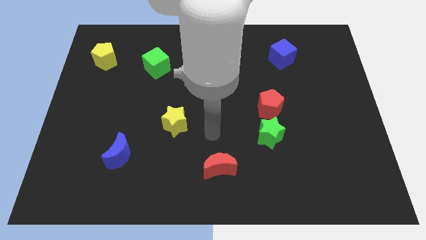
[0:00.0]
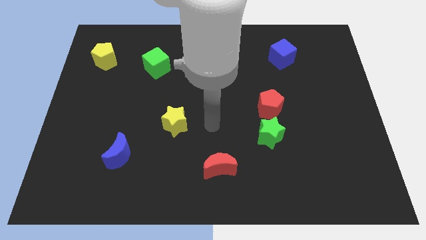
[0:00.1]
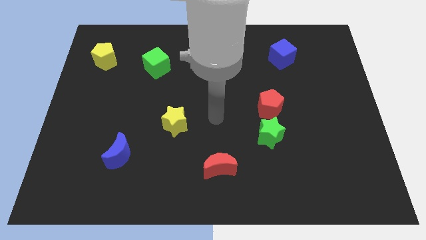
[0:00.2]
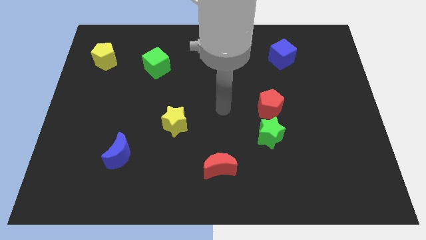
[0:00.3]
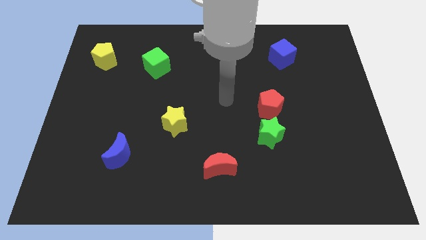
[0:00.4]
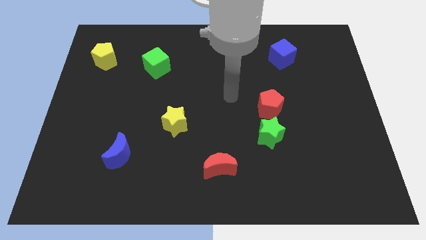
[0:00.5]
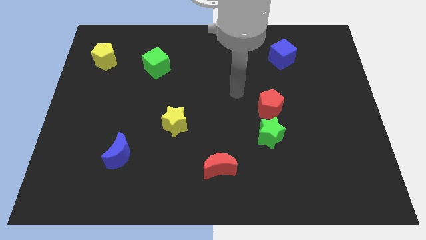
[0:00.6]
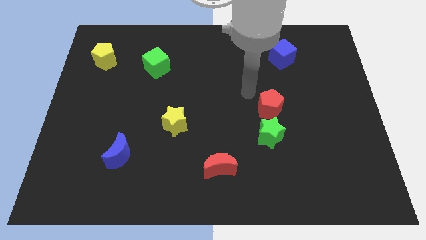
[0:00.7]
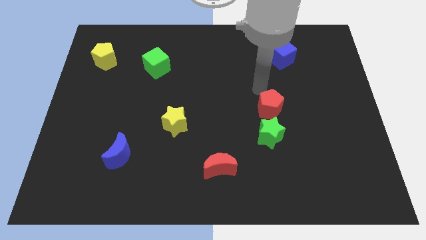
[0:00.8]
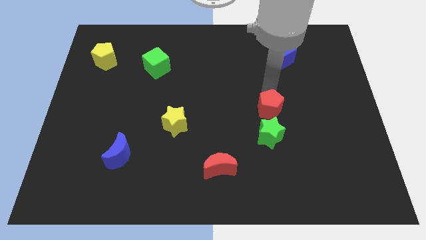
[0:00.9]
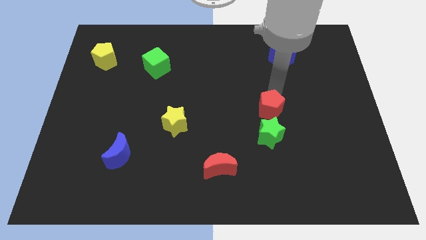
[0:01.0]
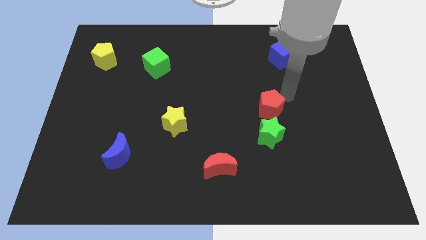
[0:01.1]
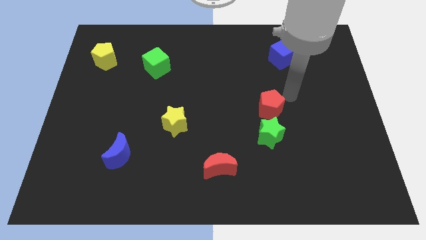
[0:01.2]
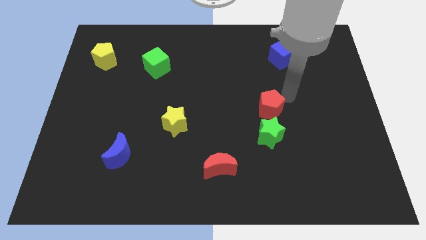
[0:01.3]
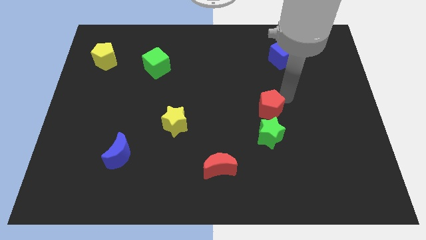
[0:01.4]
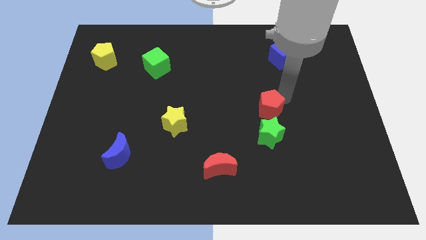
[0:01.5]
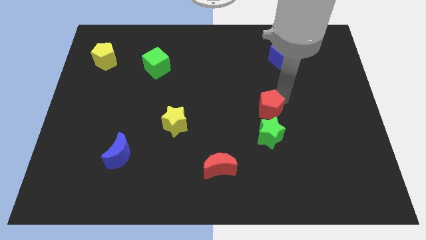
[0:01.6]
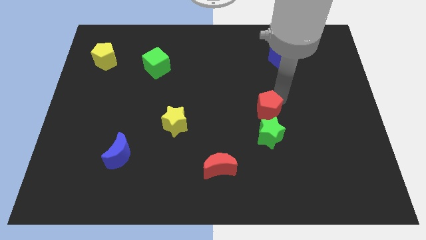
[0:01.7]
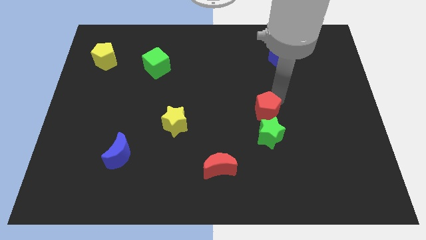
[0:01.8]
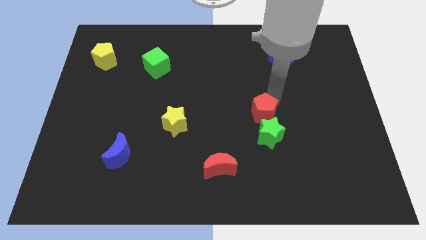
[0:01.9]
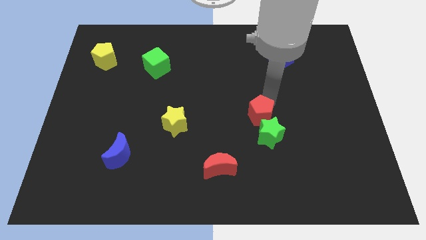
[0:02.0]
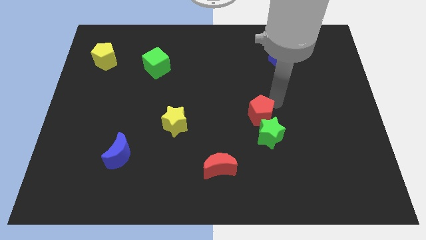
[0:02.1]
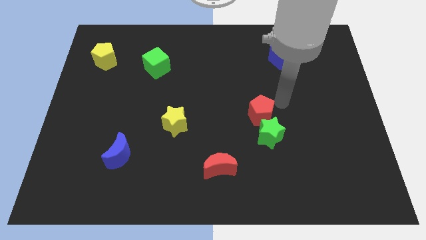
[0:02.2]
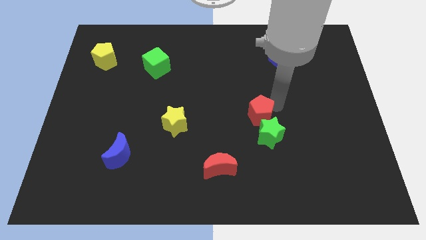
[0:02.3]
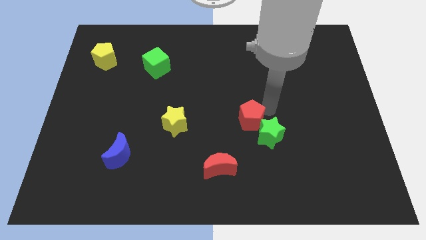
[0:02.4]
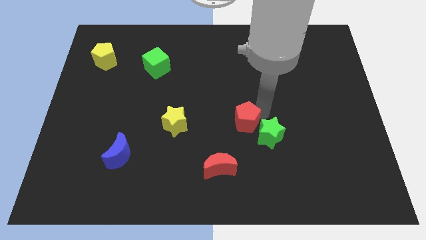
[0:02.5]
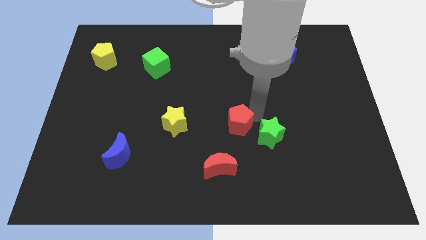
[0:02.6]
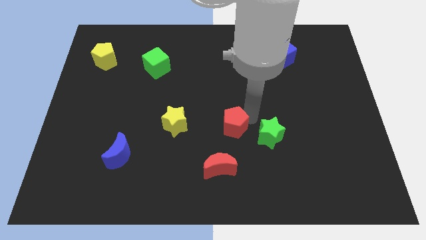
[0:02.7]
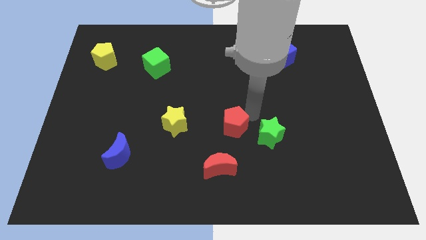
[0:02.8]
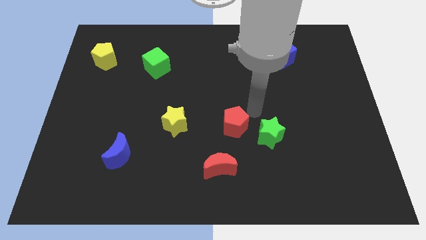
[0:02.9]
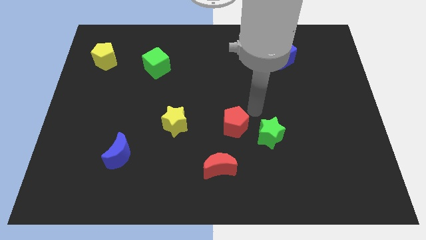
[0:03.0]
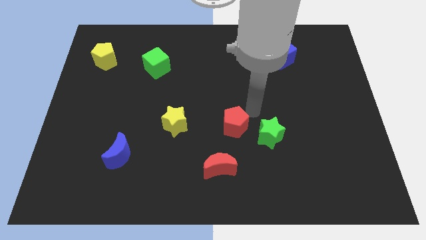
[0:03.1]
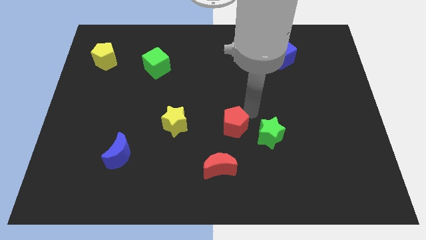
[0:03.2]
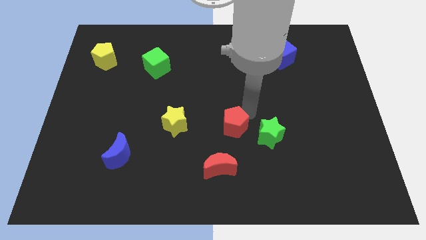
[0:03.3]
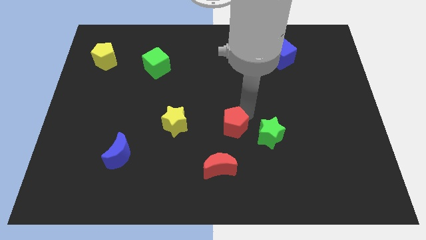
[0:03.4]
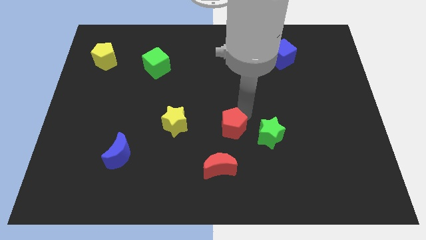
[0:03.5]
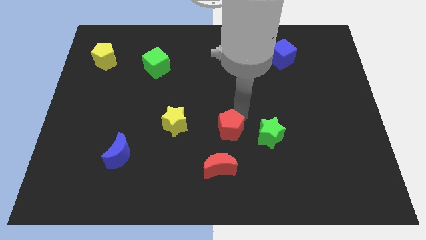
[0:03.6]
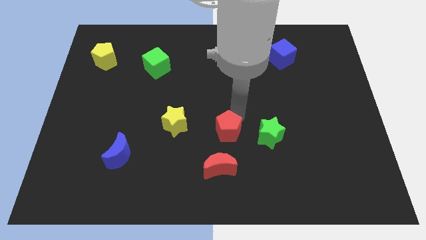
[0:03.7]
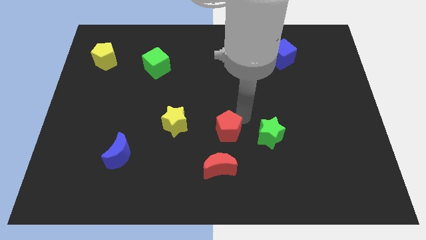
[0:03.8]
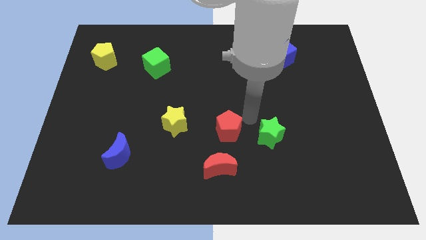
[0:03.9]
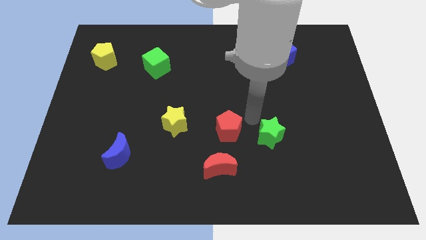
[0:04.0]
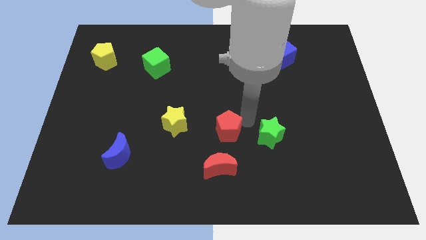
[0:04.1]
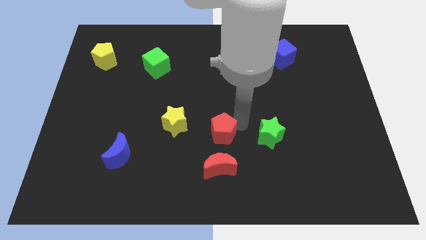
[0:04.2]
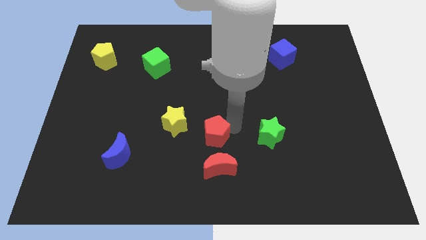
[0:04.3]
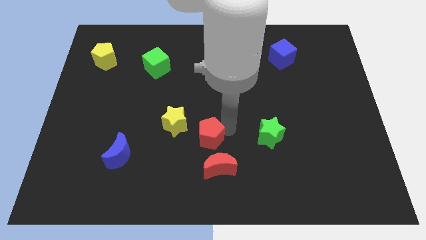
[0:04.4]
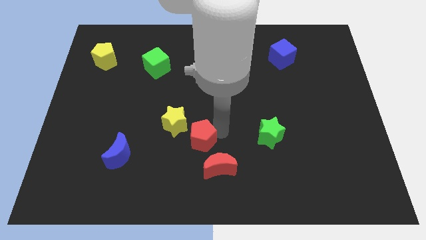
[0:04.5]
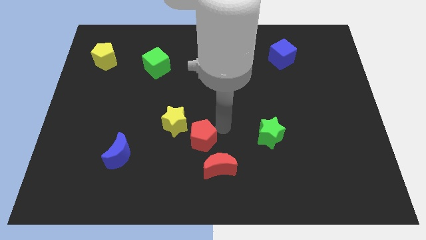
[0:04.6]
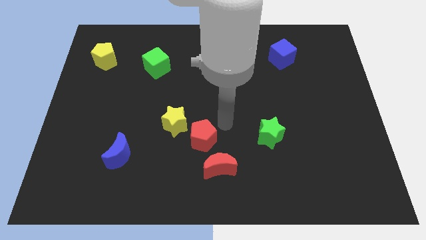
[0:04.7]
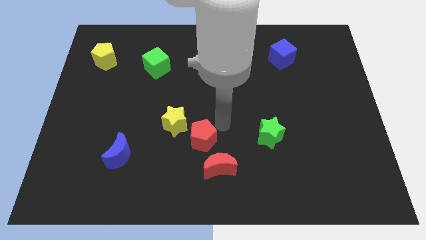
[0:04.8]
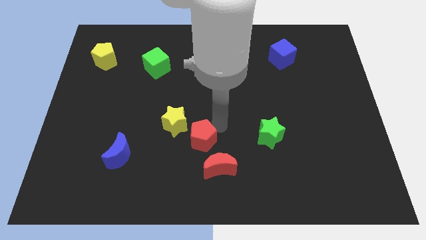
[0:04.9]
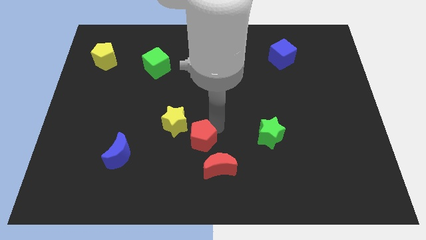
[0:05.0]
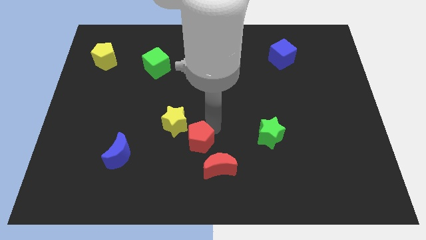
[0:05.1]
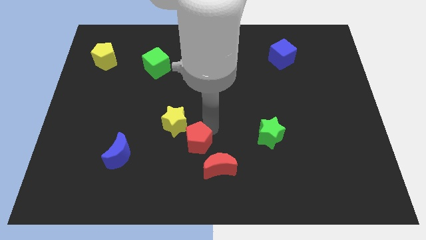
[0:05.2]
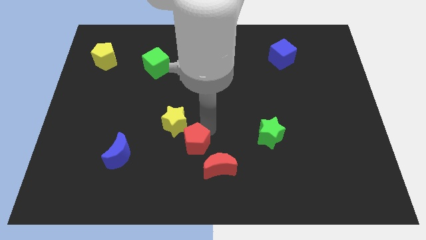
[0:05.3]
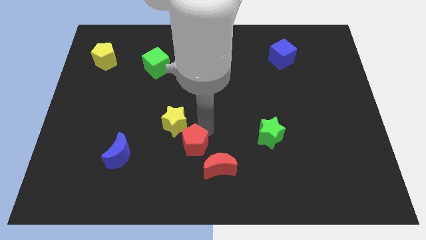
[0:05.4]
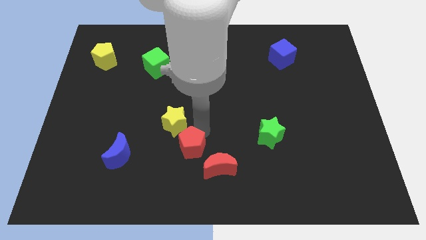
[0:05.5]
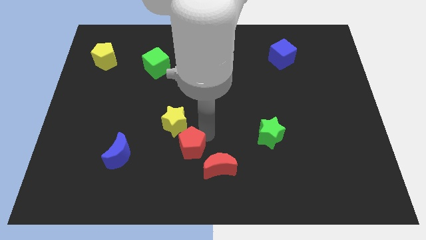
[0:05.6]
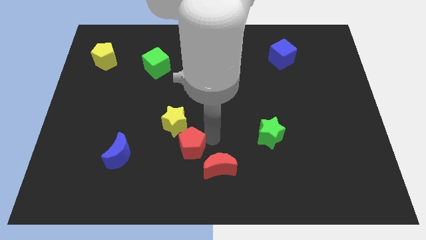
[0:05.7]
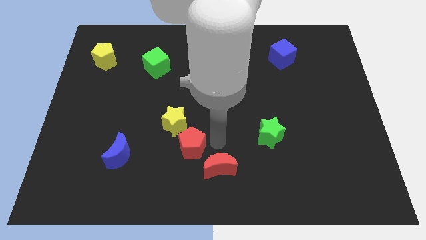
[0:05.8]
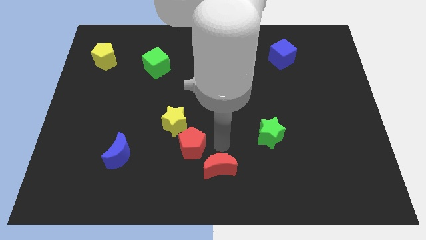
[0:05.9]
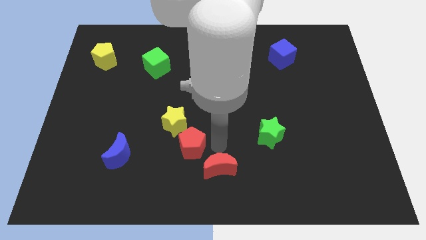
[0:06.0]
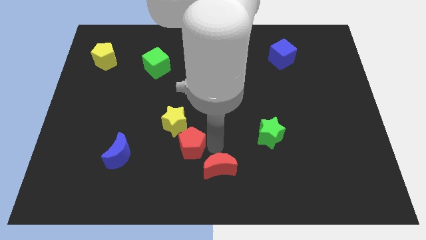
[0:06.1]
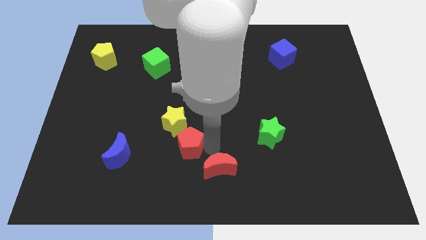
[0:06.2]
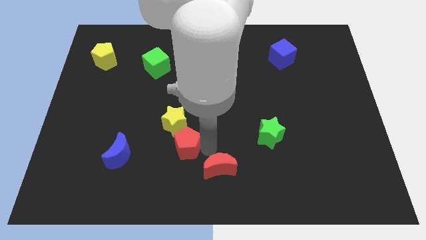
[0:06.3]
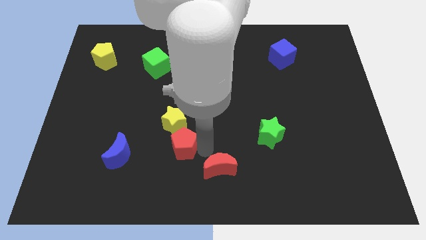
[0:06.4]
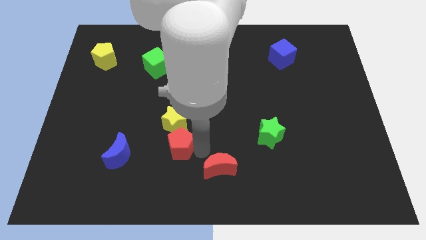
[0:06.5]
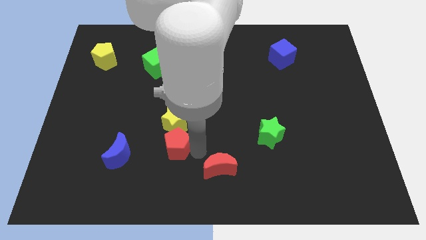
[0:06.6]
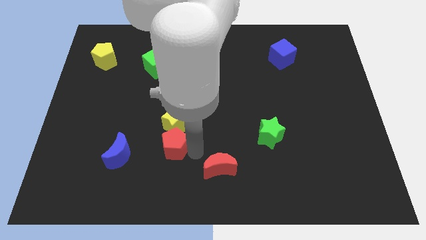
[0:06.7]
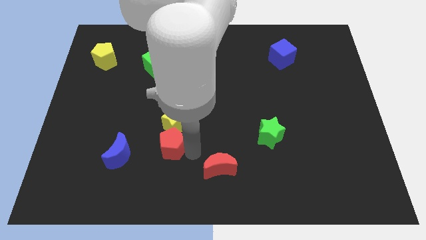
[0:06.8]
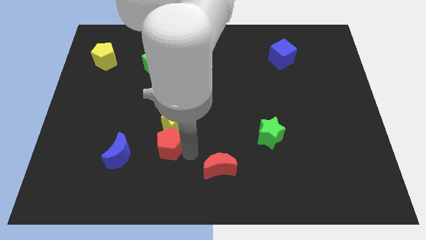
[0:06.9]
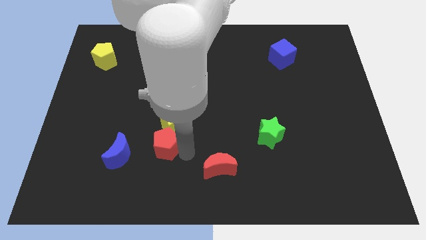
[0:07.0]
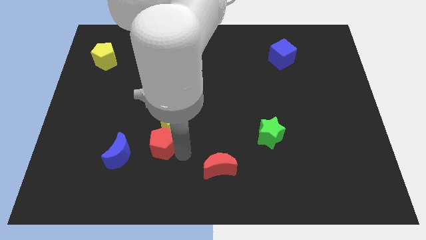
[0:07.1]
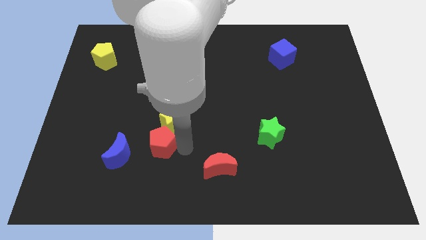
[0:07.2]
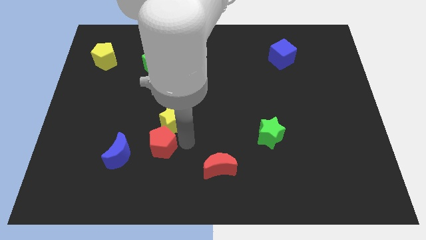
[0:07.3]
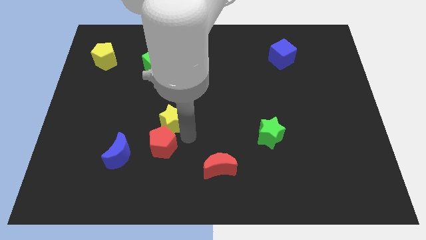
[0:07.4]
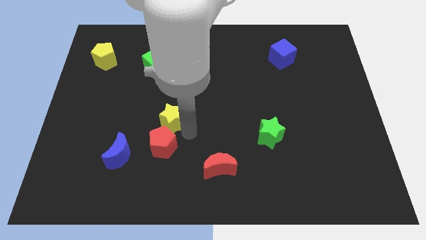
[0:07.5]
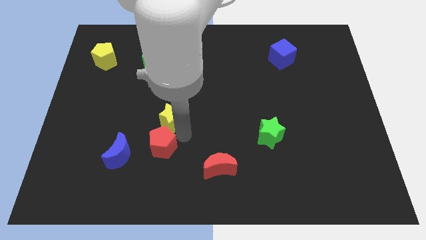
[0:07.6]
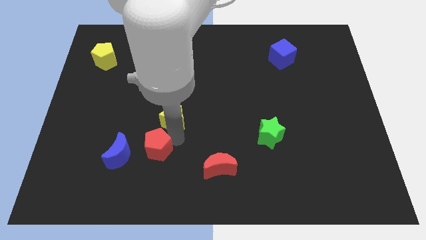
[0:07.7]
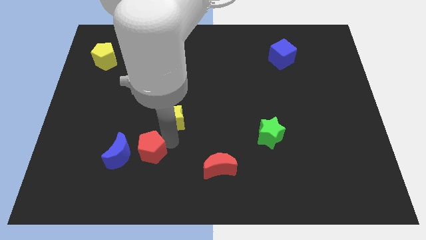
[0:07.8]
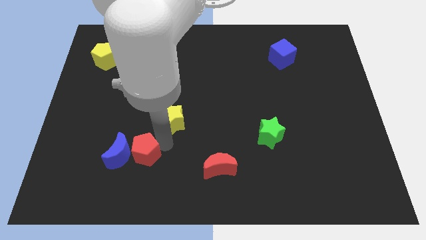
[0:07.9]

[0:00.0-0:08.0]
put the red pentagon next to the blue moon

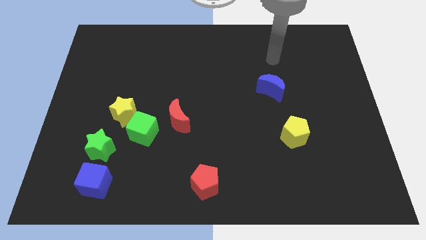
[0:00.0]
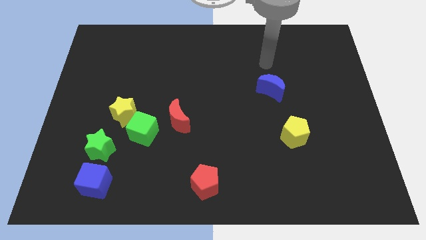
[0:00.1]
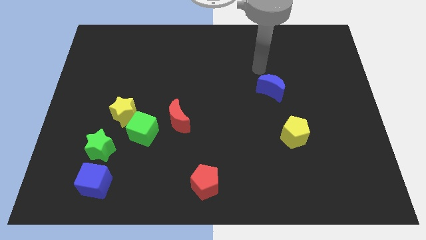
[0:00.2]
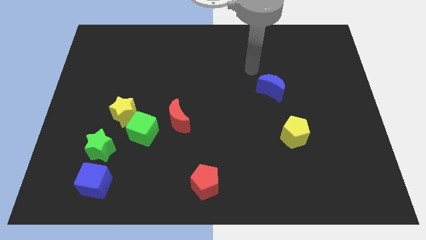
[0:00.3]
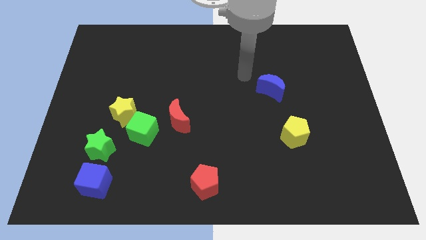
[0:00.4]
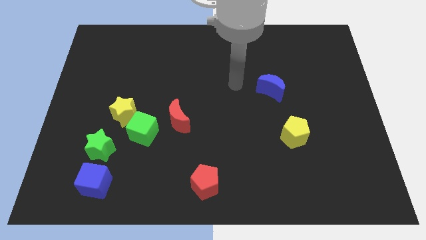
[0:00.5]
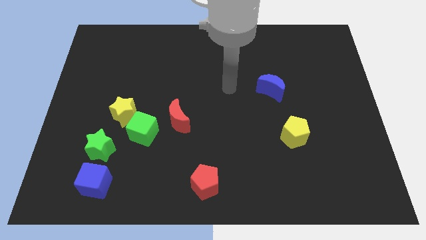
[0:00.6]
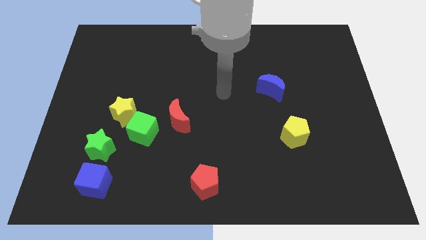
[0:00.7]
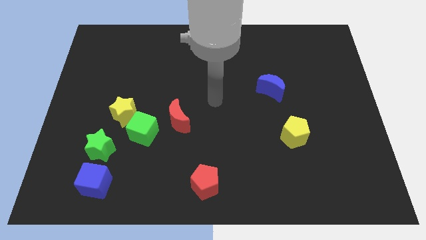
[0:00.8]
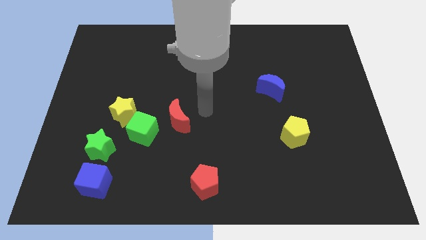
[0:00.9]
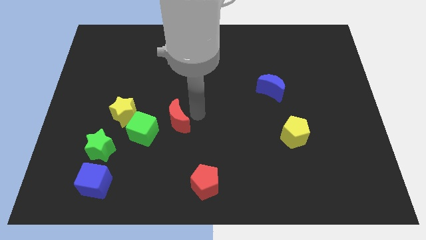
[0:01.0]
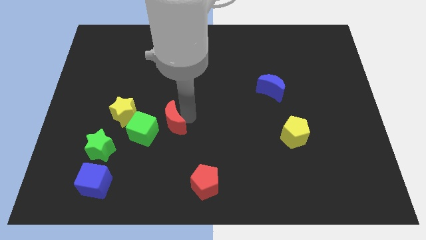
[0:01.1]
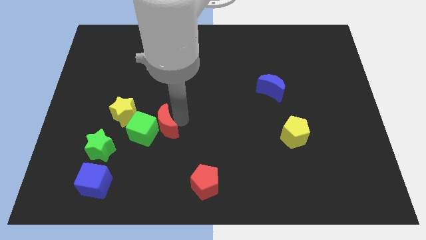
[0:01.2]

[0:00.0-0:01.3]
move the red moon close to the green cube
